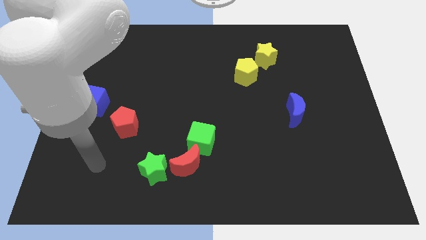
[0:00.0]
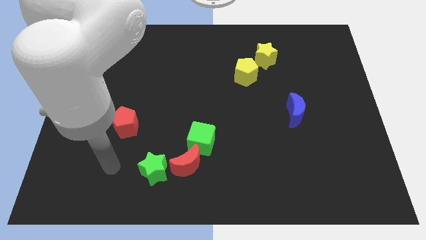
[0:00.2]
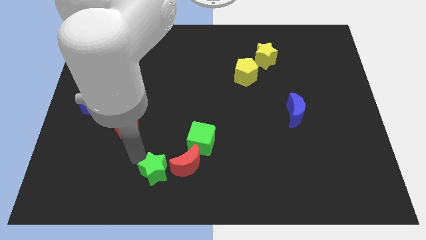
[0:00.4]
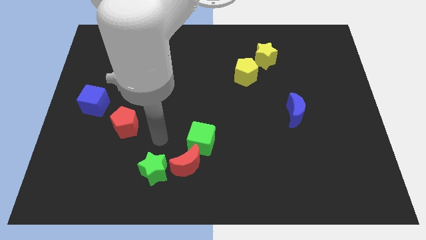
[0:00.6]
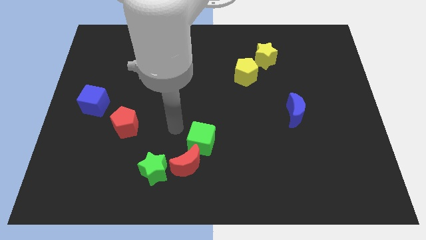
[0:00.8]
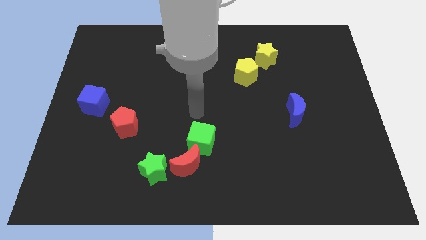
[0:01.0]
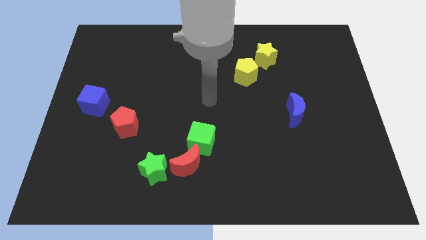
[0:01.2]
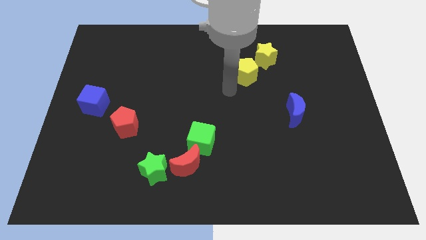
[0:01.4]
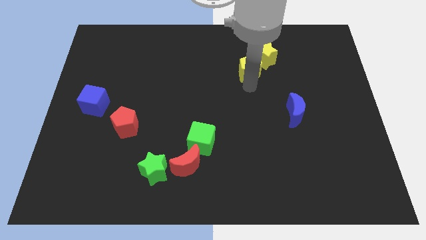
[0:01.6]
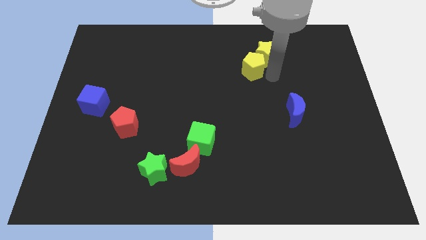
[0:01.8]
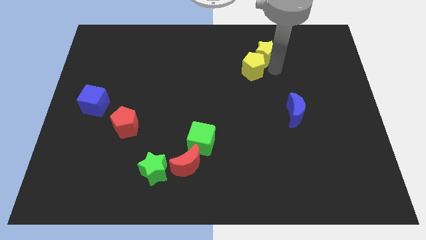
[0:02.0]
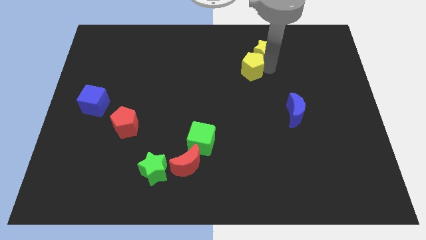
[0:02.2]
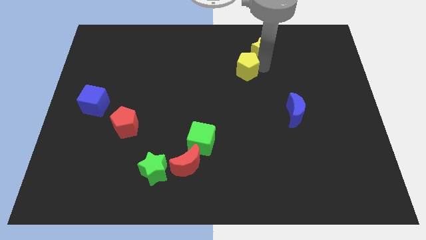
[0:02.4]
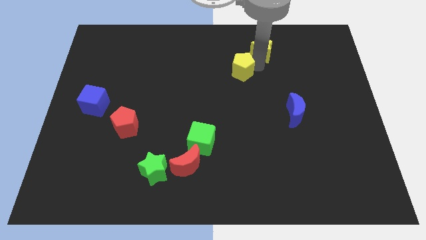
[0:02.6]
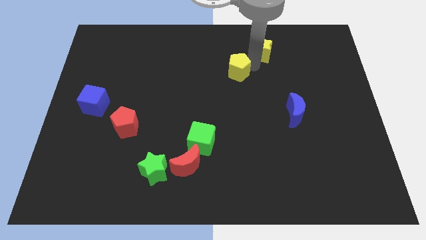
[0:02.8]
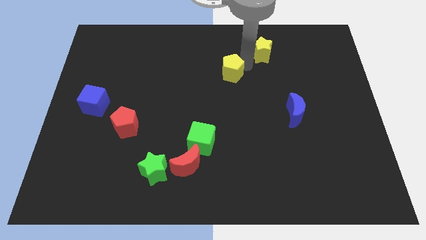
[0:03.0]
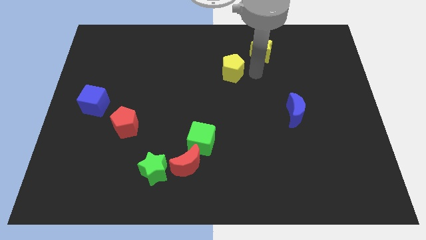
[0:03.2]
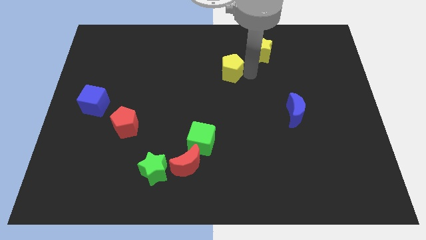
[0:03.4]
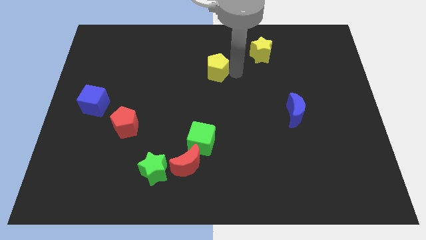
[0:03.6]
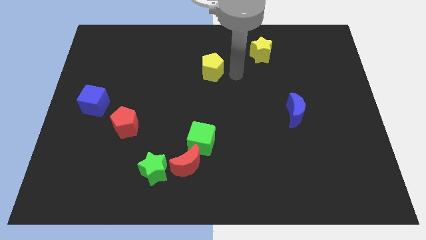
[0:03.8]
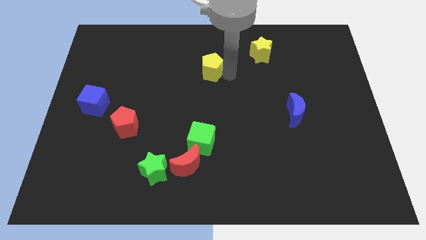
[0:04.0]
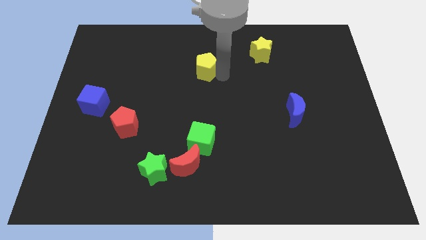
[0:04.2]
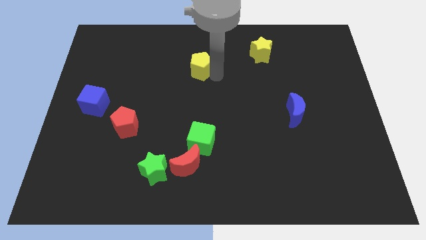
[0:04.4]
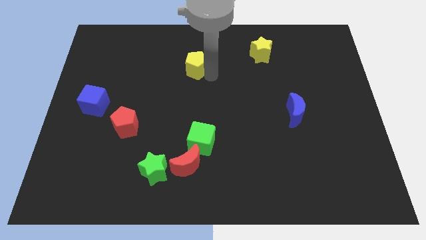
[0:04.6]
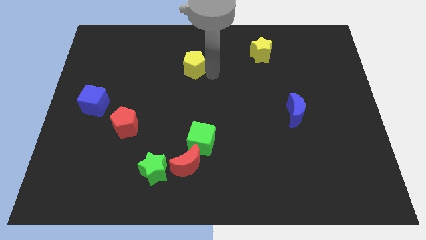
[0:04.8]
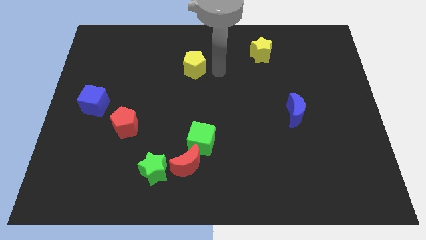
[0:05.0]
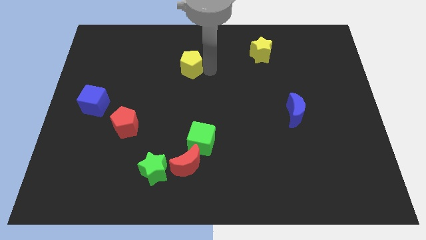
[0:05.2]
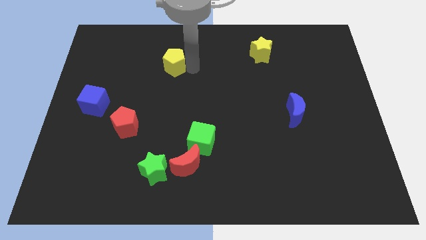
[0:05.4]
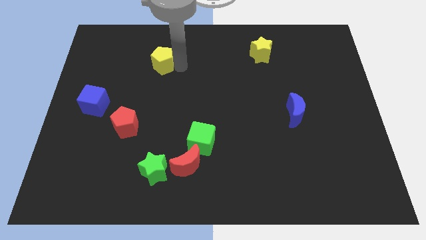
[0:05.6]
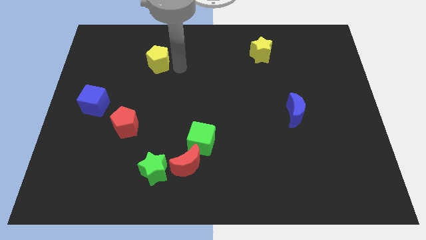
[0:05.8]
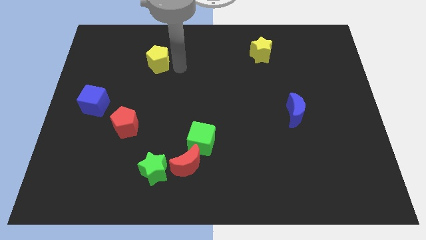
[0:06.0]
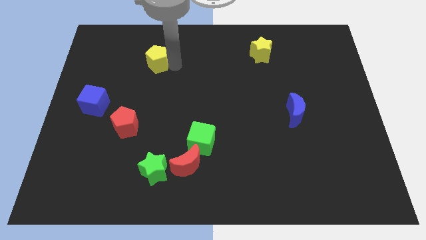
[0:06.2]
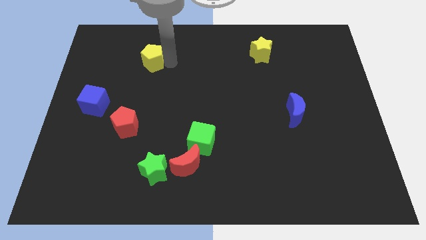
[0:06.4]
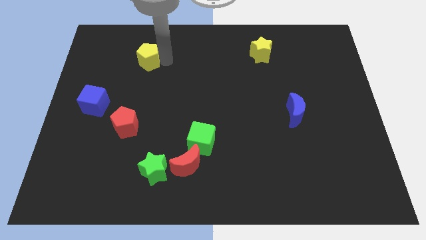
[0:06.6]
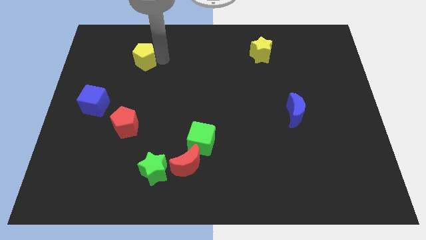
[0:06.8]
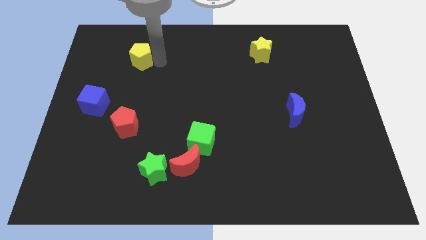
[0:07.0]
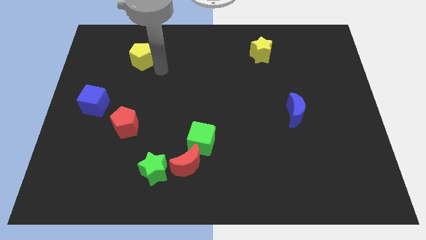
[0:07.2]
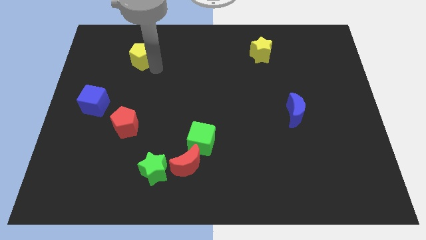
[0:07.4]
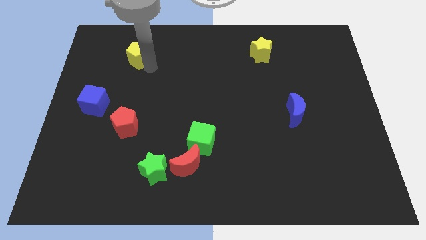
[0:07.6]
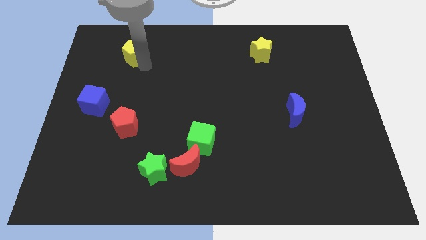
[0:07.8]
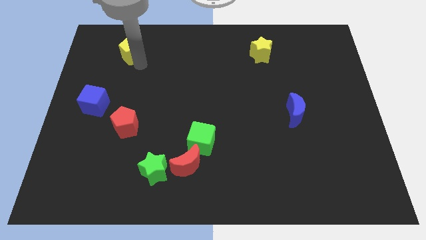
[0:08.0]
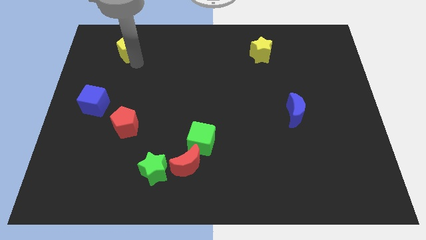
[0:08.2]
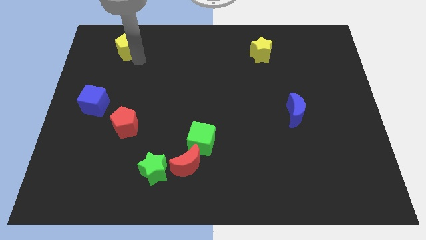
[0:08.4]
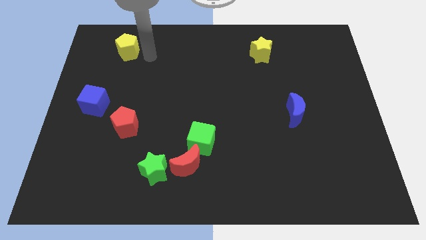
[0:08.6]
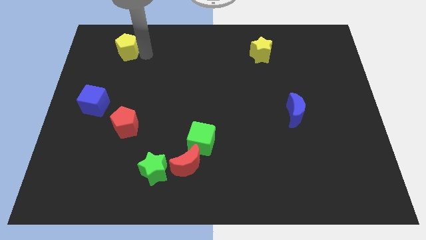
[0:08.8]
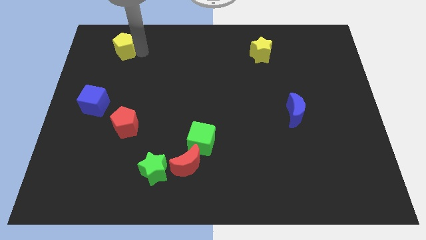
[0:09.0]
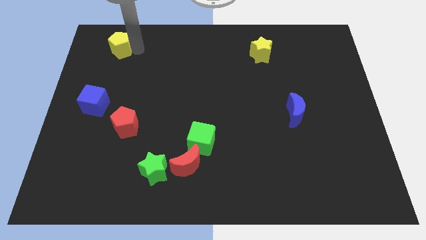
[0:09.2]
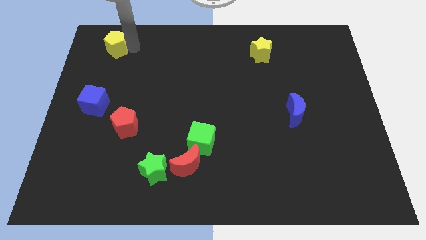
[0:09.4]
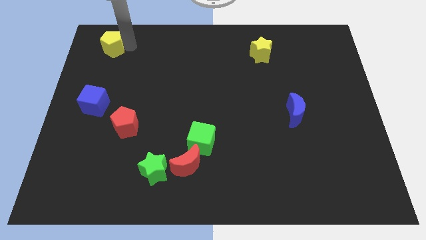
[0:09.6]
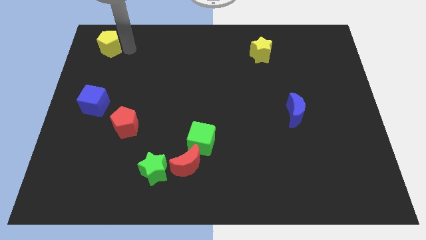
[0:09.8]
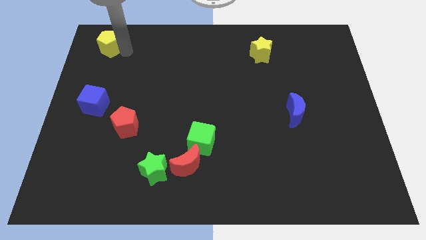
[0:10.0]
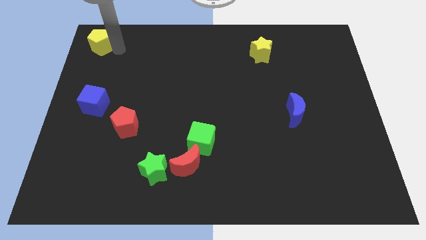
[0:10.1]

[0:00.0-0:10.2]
push the yellow pentagon to the upper left corner
